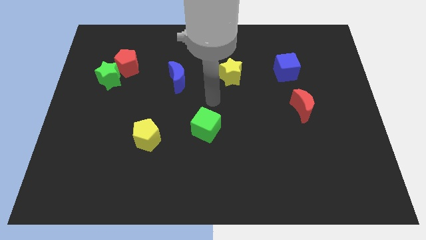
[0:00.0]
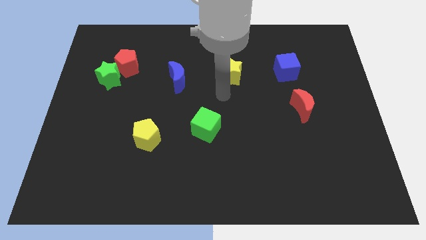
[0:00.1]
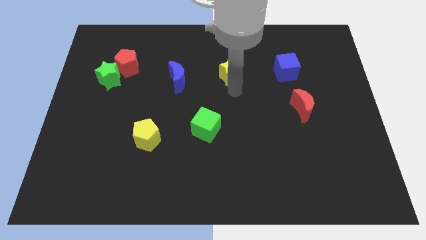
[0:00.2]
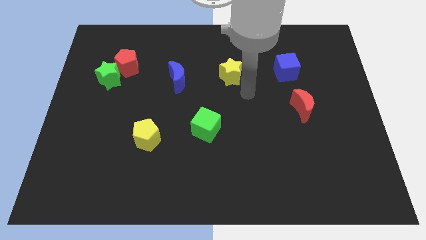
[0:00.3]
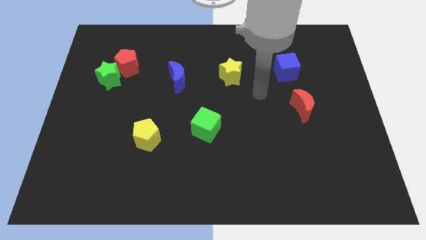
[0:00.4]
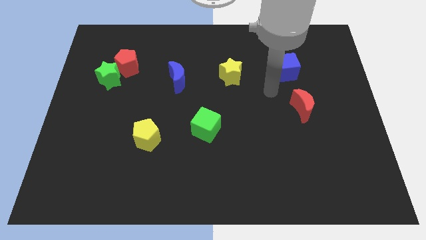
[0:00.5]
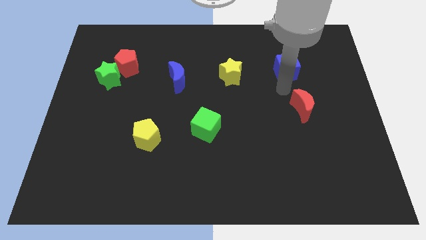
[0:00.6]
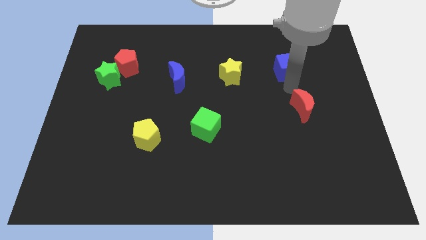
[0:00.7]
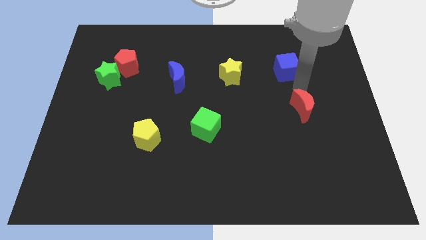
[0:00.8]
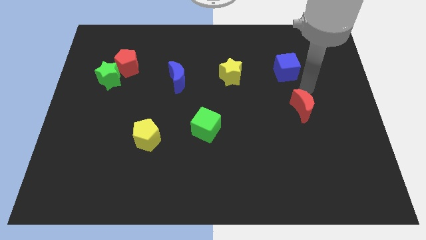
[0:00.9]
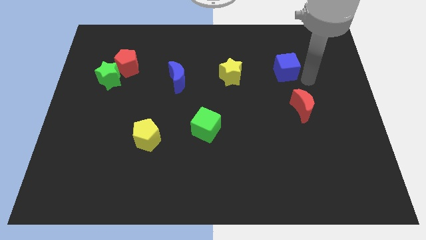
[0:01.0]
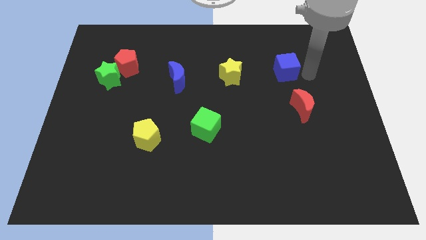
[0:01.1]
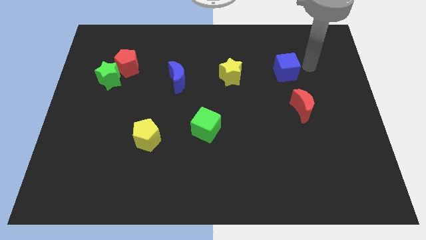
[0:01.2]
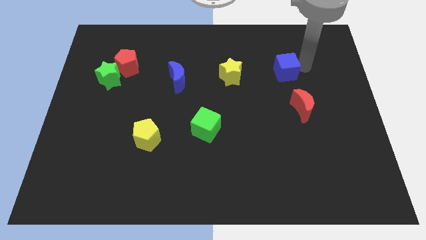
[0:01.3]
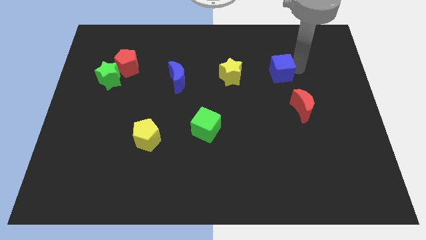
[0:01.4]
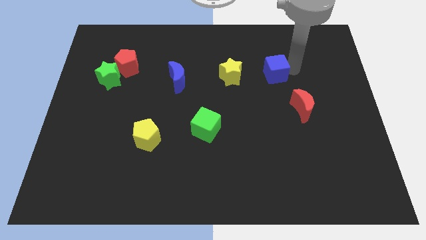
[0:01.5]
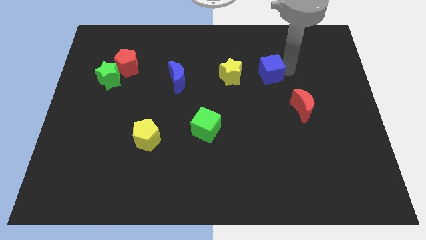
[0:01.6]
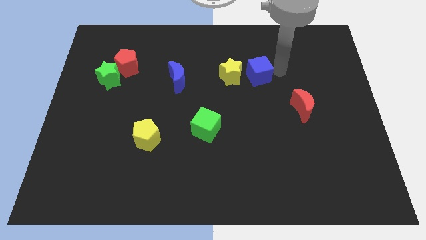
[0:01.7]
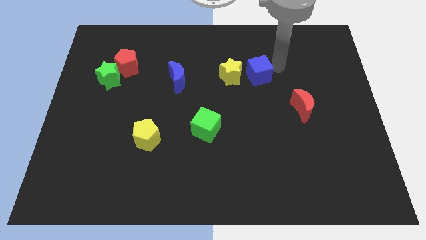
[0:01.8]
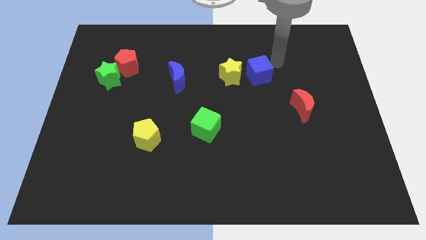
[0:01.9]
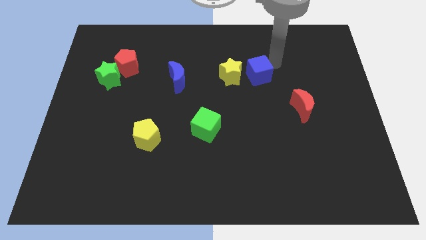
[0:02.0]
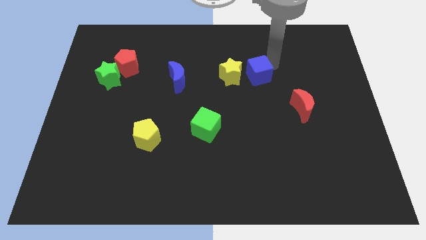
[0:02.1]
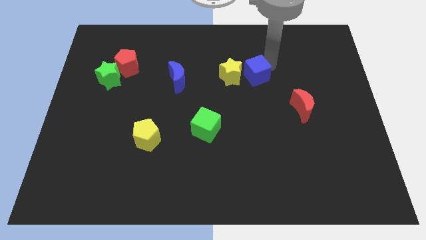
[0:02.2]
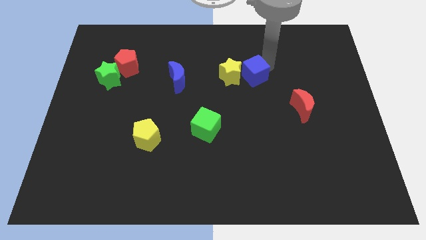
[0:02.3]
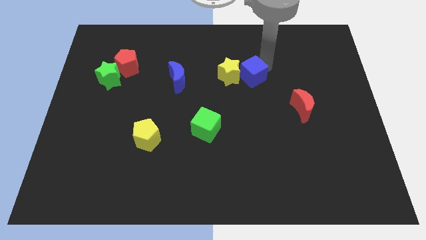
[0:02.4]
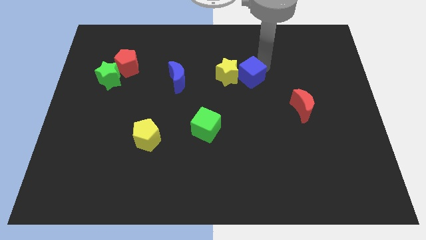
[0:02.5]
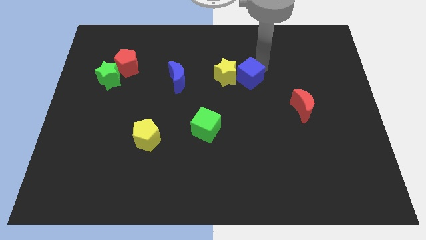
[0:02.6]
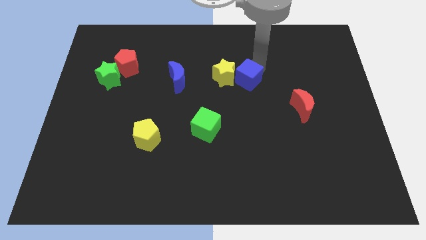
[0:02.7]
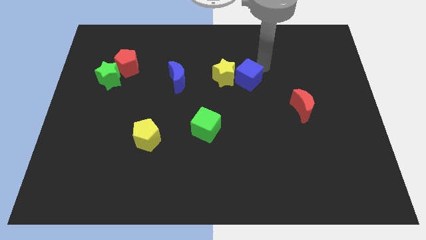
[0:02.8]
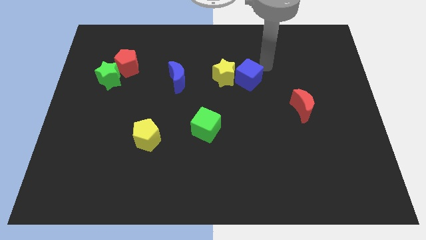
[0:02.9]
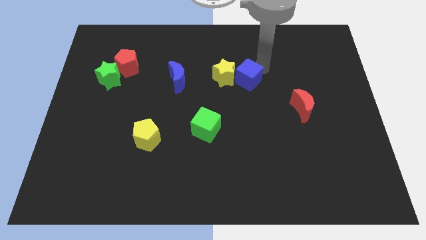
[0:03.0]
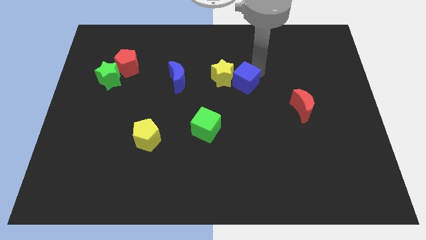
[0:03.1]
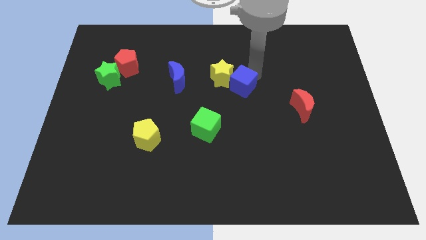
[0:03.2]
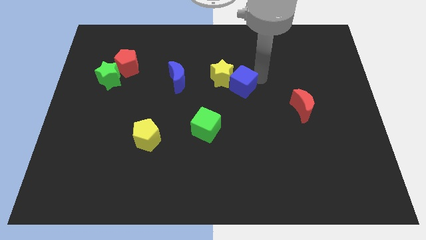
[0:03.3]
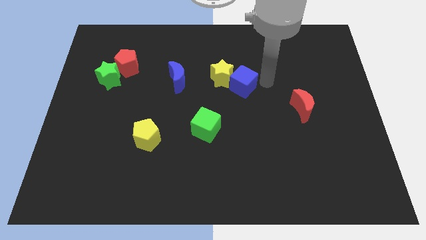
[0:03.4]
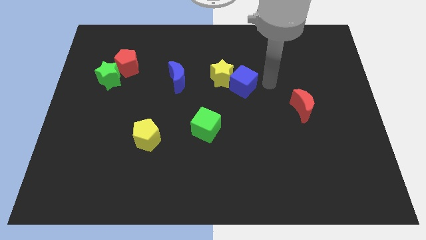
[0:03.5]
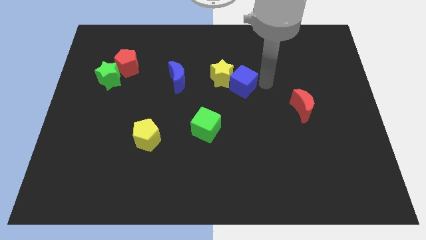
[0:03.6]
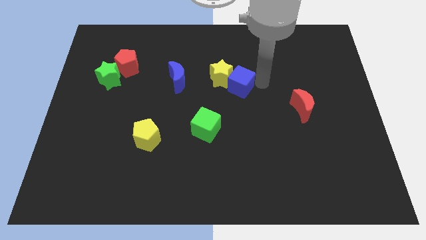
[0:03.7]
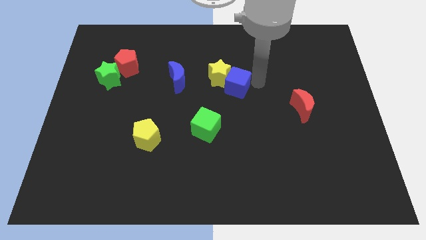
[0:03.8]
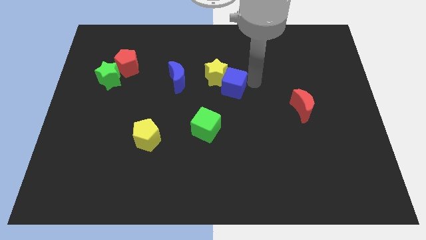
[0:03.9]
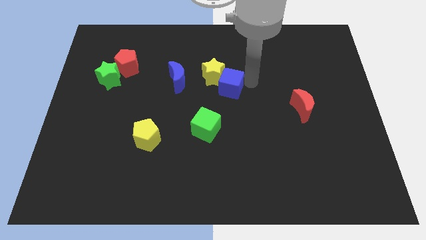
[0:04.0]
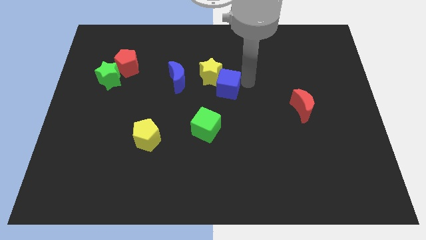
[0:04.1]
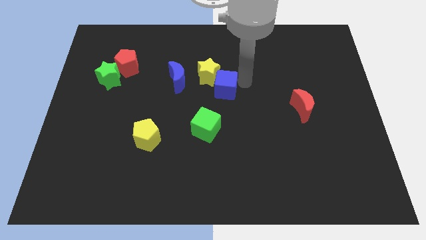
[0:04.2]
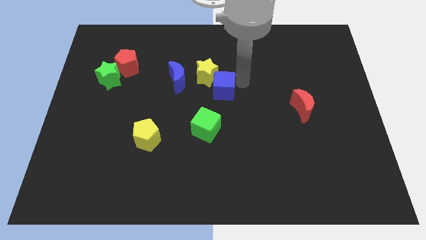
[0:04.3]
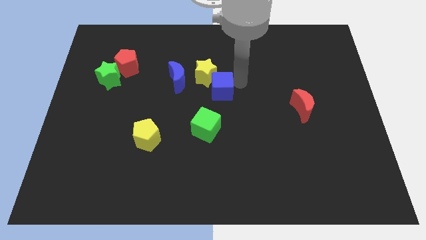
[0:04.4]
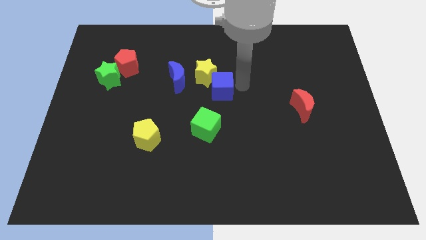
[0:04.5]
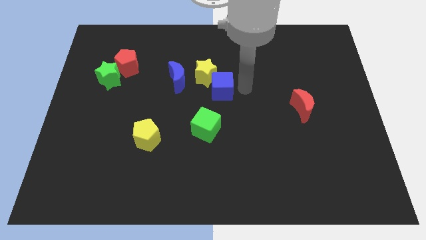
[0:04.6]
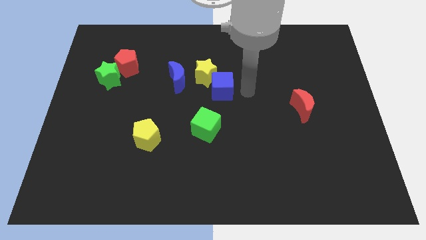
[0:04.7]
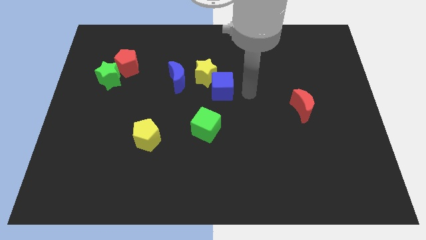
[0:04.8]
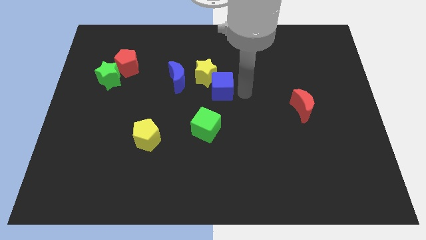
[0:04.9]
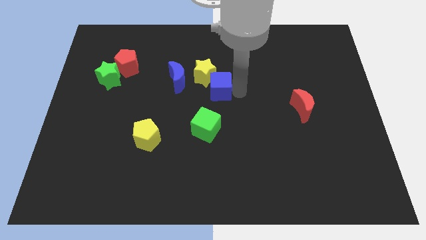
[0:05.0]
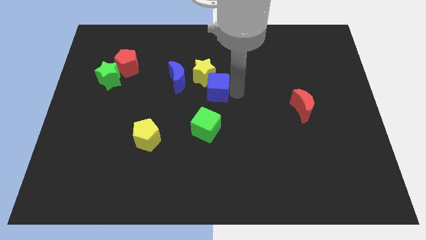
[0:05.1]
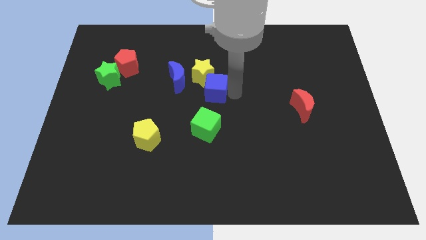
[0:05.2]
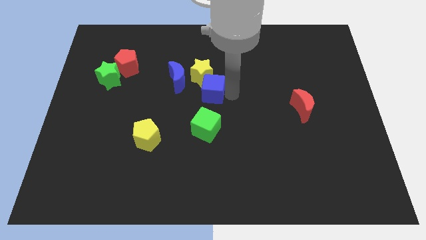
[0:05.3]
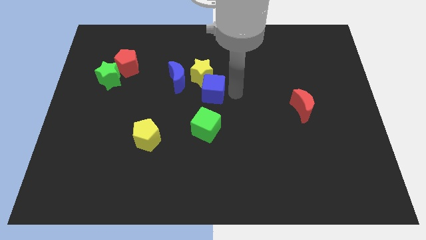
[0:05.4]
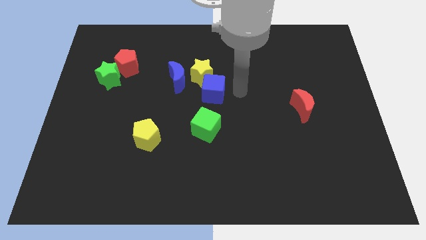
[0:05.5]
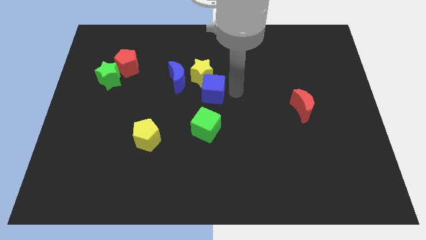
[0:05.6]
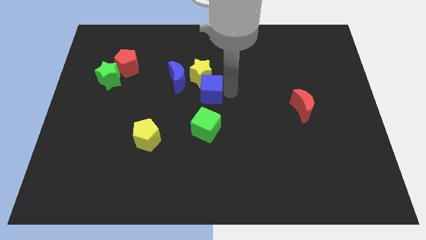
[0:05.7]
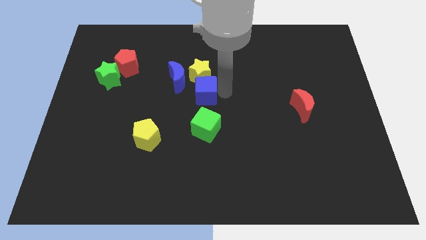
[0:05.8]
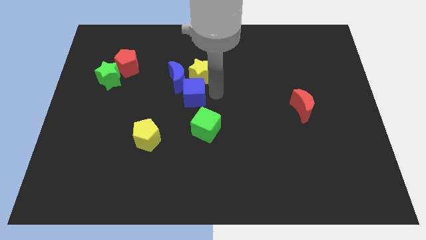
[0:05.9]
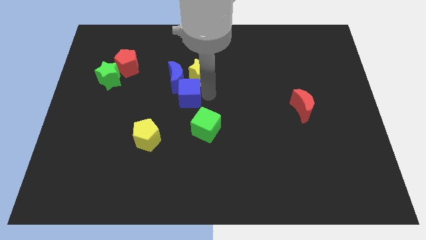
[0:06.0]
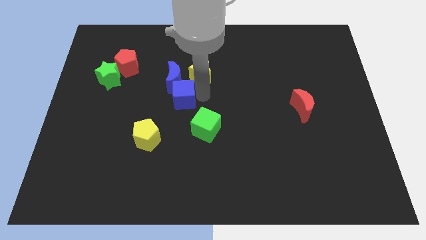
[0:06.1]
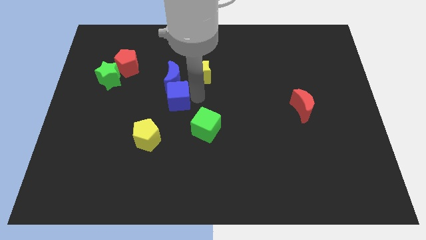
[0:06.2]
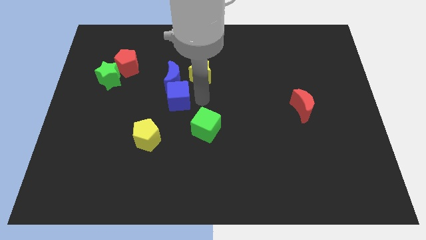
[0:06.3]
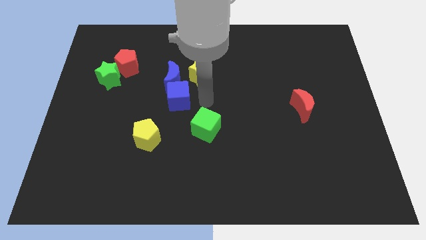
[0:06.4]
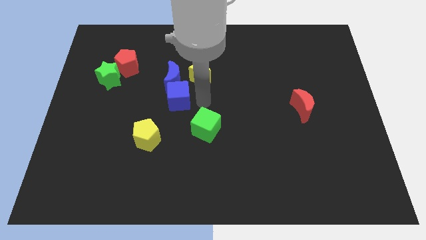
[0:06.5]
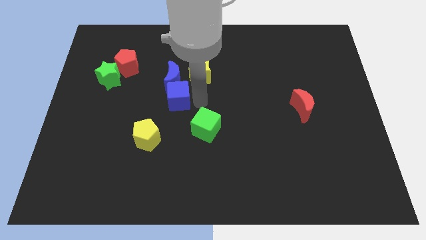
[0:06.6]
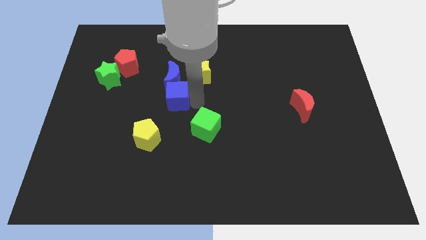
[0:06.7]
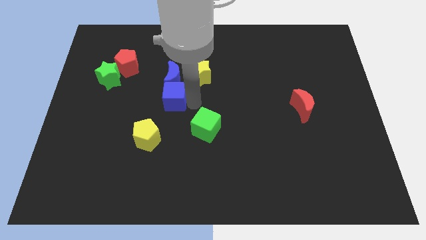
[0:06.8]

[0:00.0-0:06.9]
push the blue cube to the bottom left of the blue moon
